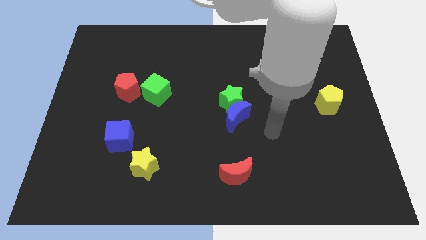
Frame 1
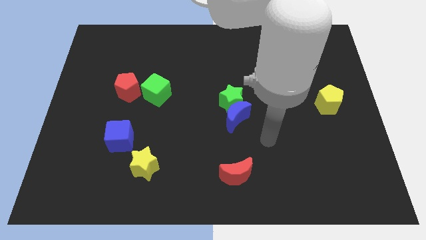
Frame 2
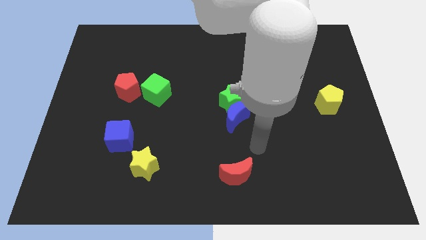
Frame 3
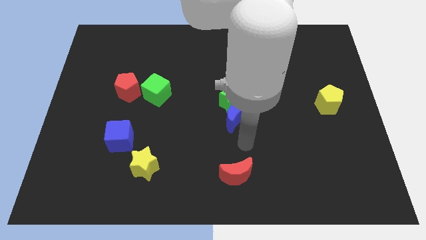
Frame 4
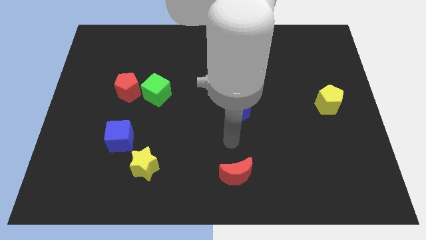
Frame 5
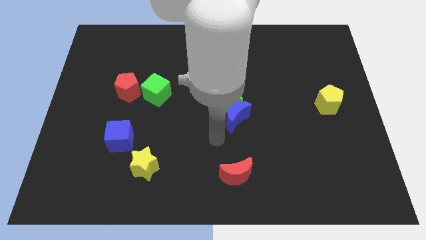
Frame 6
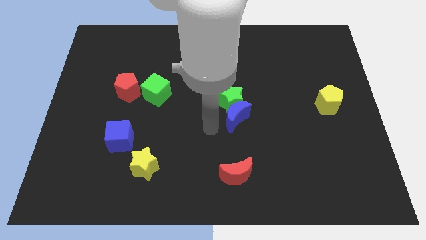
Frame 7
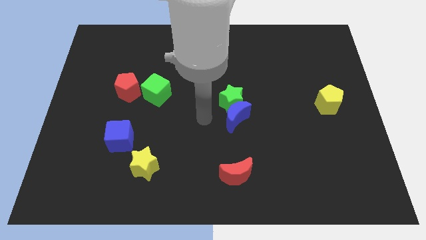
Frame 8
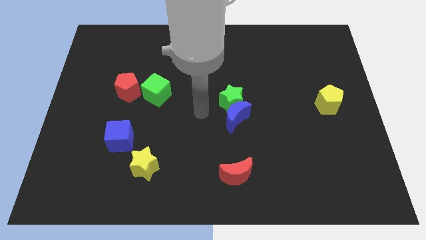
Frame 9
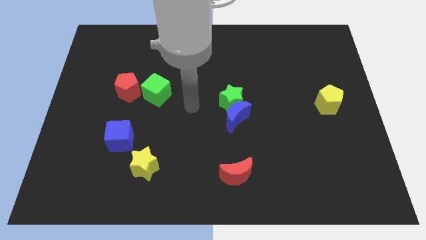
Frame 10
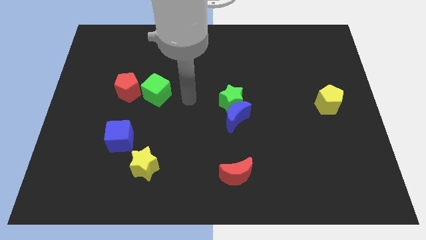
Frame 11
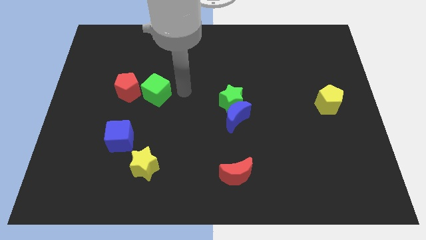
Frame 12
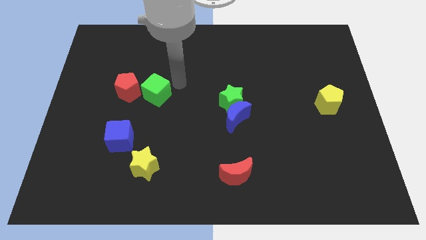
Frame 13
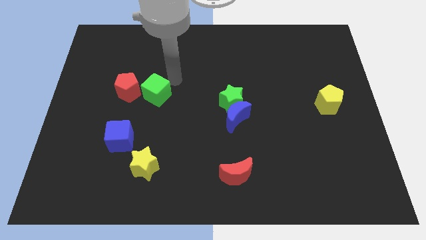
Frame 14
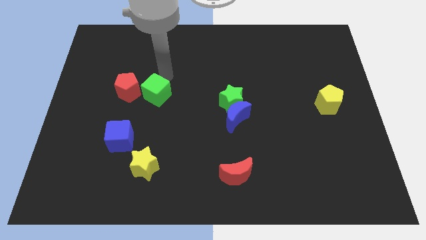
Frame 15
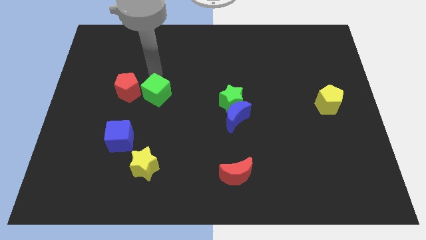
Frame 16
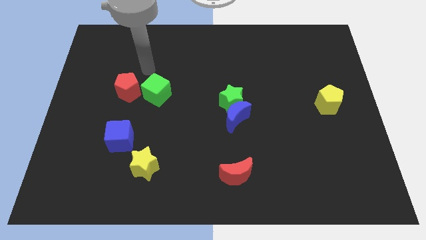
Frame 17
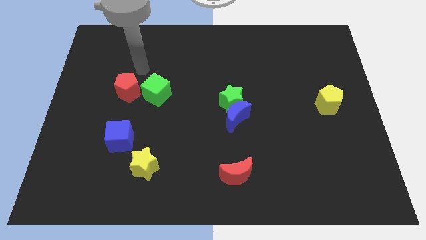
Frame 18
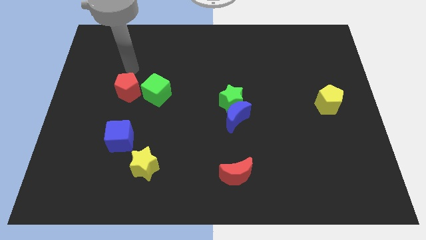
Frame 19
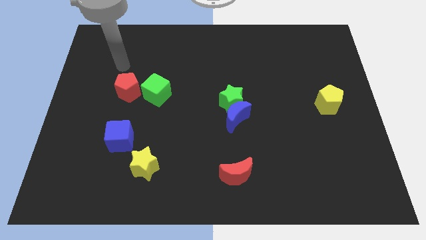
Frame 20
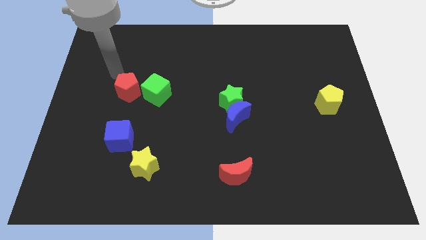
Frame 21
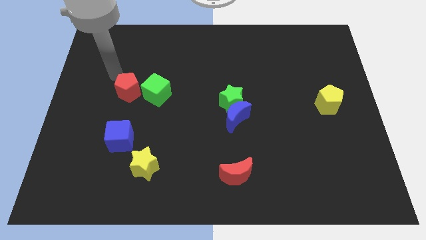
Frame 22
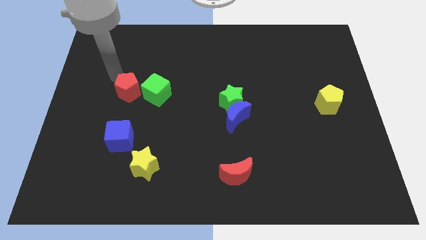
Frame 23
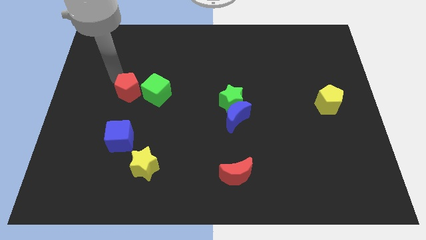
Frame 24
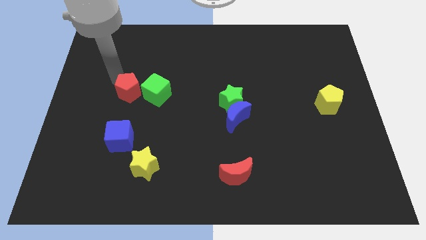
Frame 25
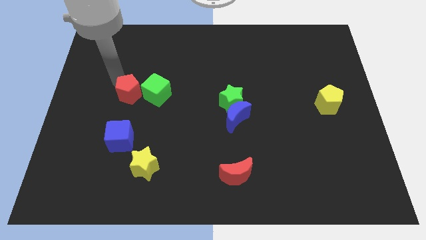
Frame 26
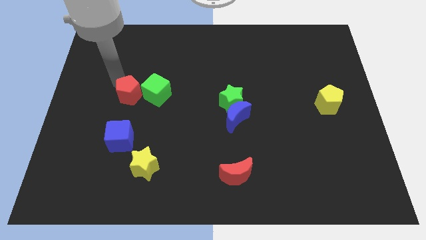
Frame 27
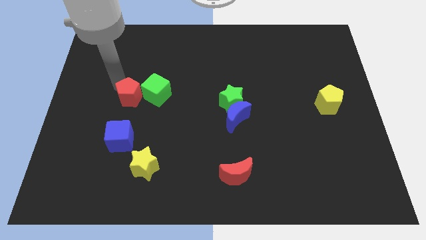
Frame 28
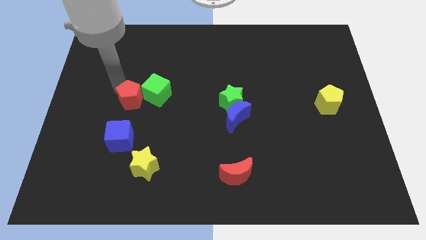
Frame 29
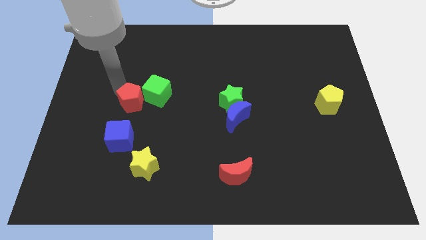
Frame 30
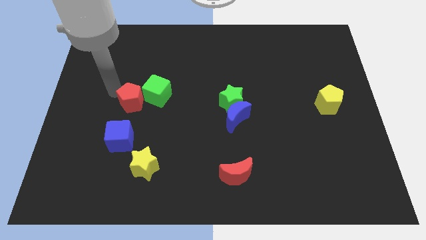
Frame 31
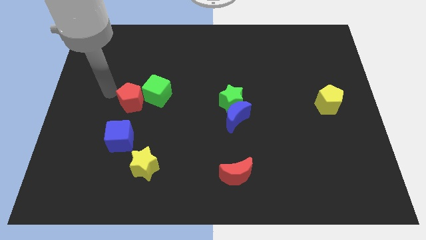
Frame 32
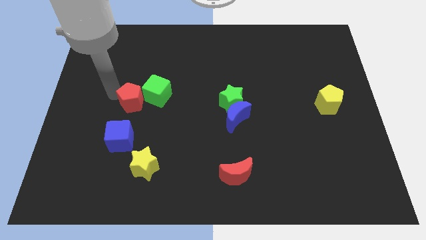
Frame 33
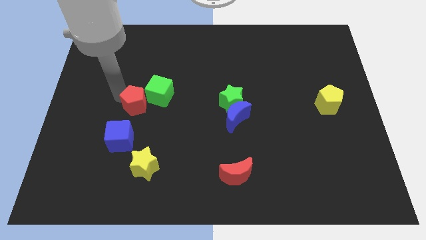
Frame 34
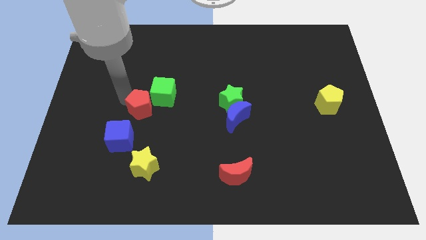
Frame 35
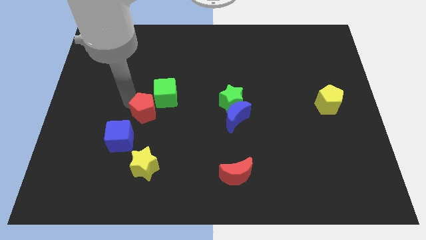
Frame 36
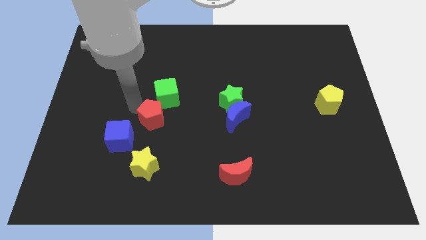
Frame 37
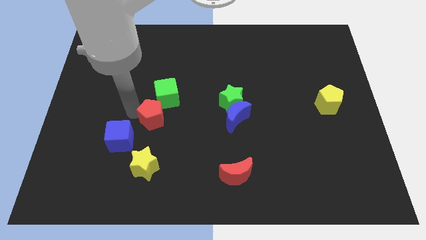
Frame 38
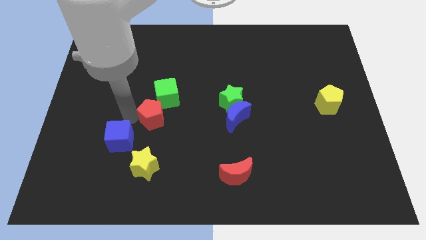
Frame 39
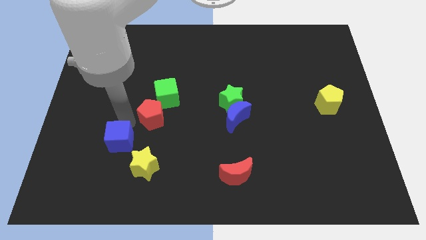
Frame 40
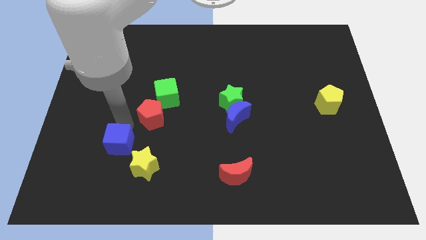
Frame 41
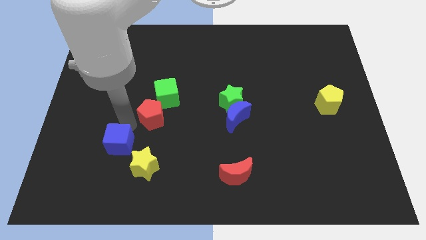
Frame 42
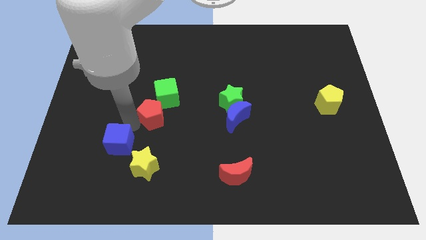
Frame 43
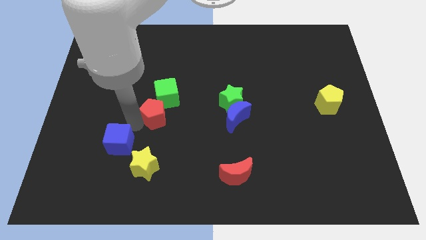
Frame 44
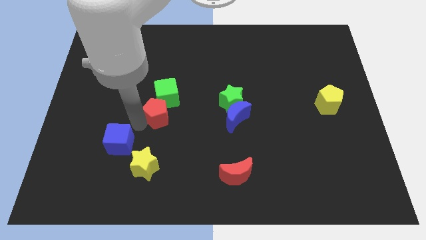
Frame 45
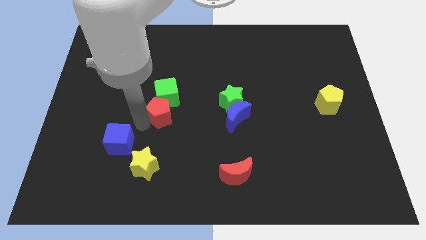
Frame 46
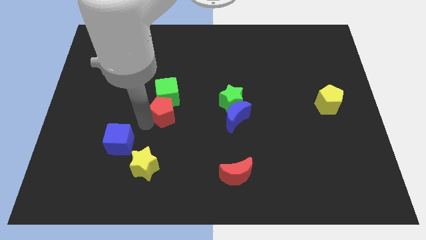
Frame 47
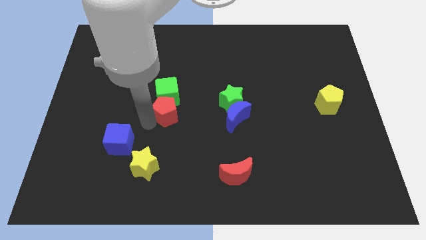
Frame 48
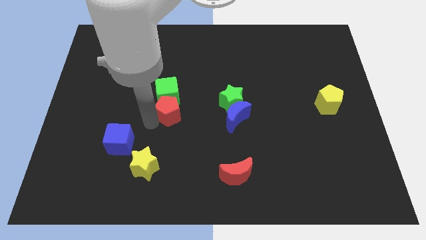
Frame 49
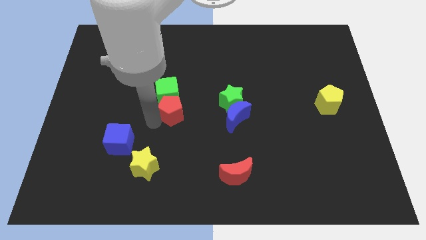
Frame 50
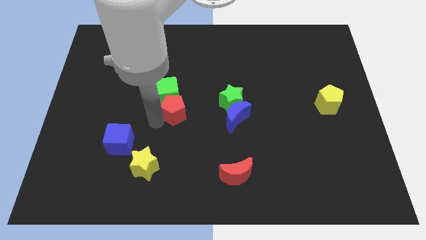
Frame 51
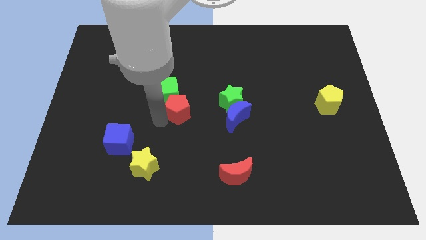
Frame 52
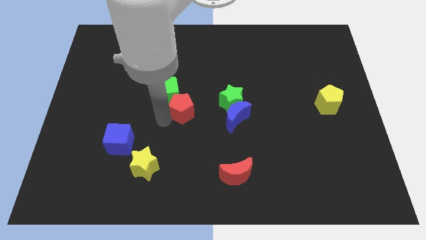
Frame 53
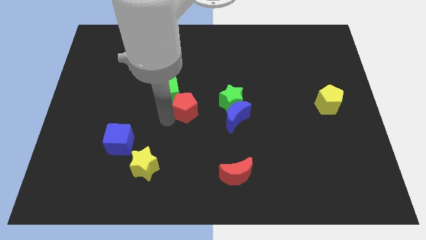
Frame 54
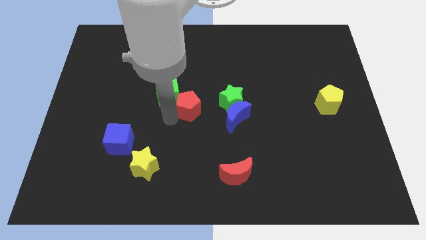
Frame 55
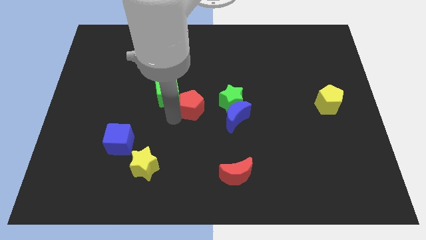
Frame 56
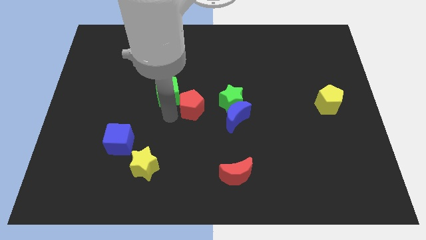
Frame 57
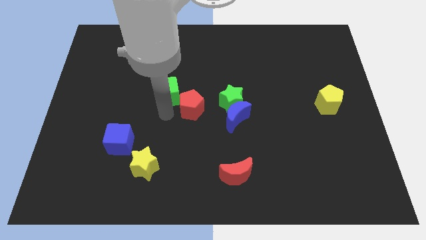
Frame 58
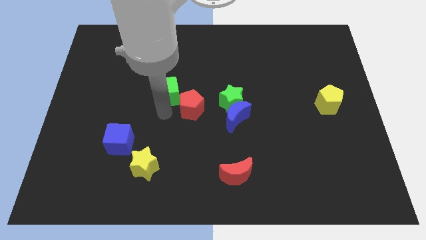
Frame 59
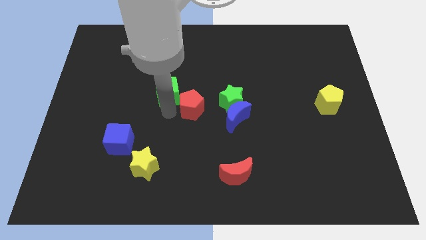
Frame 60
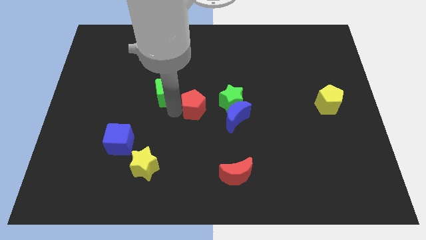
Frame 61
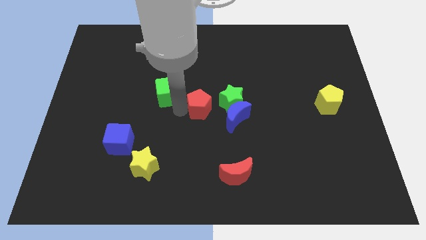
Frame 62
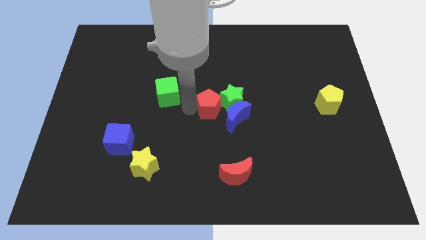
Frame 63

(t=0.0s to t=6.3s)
push the red pentagon close to the green star

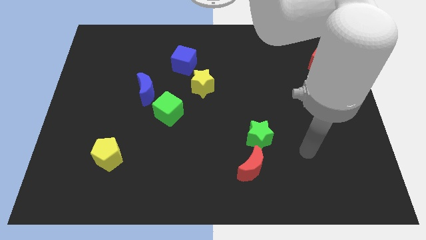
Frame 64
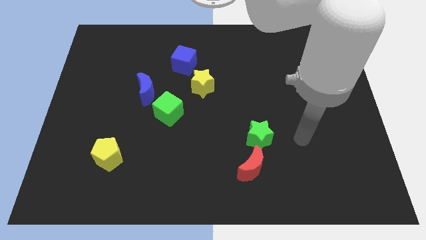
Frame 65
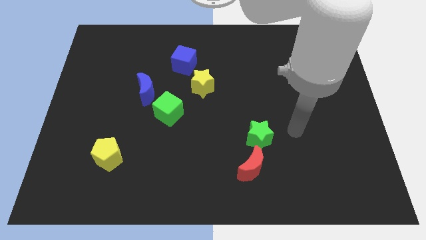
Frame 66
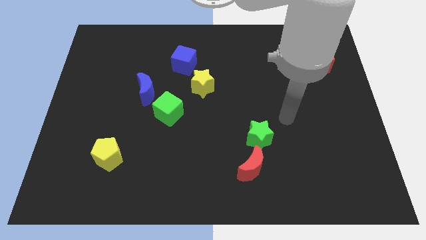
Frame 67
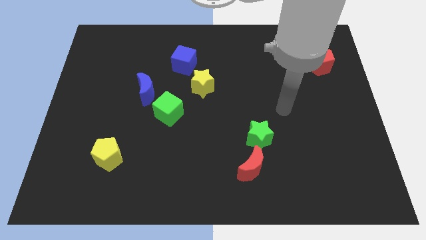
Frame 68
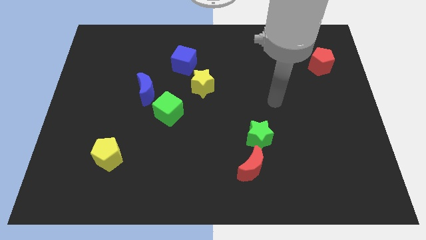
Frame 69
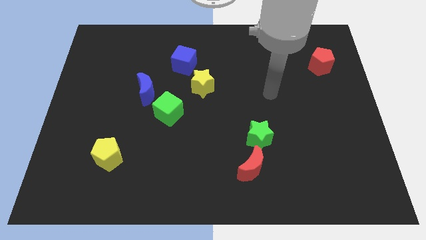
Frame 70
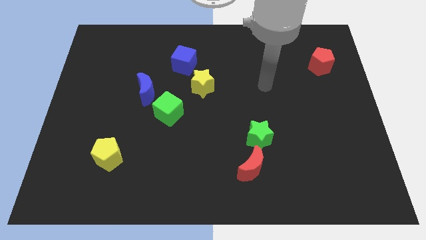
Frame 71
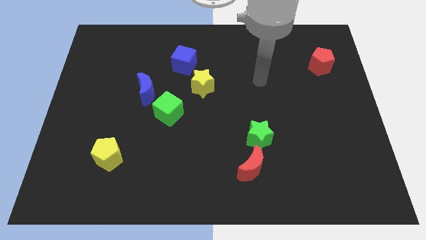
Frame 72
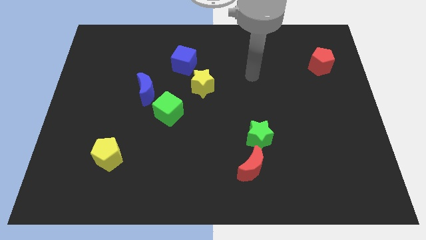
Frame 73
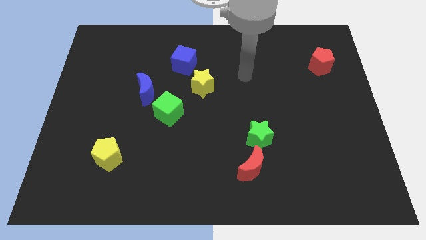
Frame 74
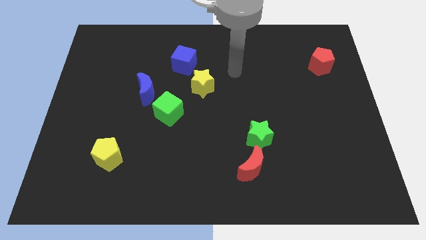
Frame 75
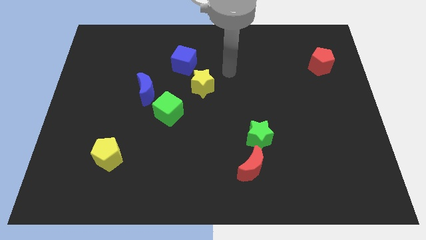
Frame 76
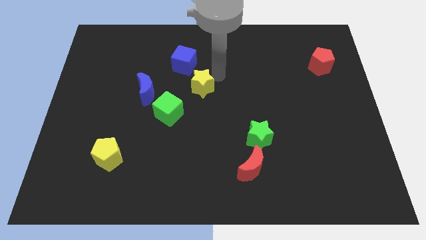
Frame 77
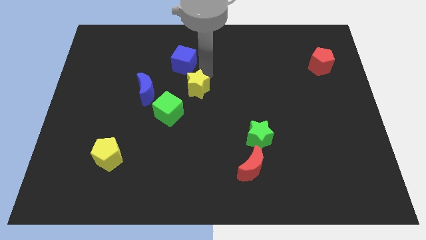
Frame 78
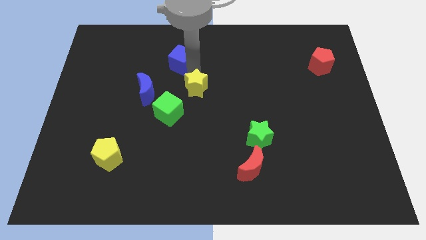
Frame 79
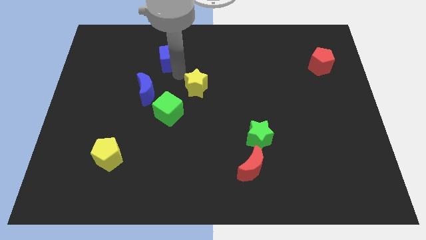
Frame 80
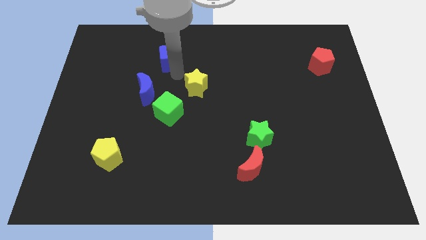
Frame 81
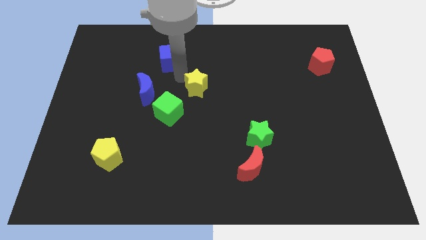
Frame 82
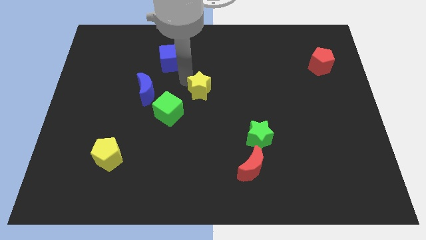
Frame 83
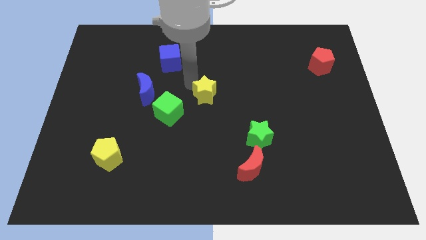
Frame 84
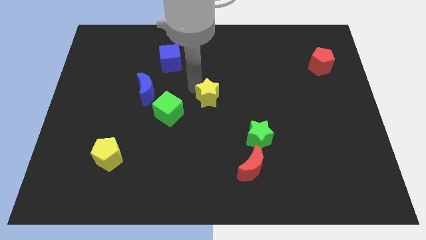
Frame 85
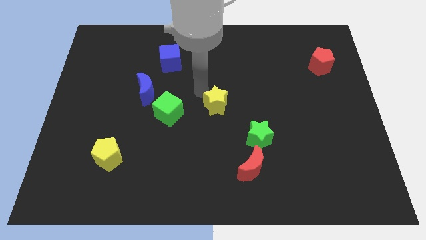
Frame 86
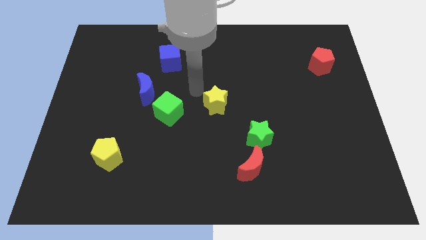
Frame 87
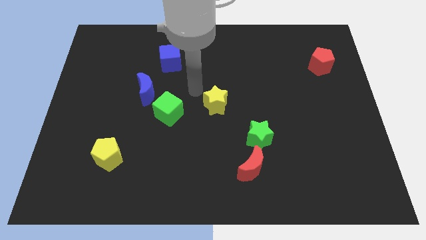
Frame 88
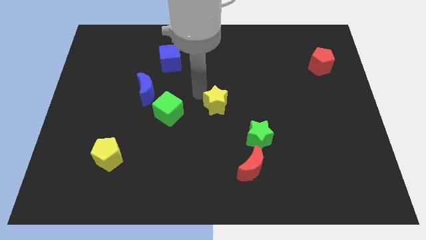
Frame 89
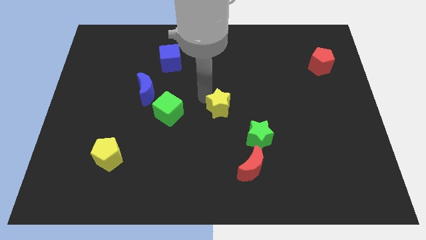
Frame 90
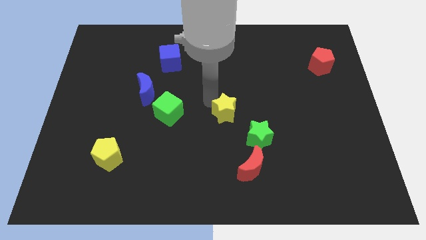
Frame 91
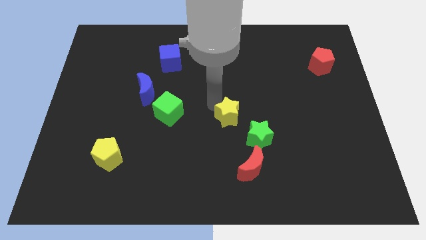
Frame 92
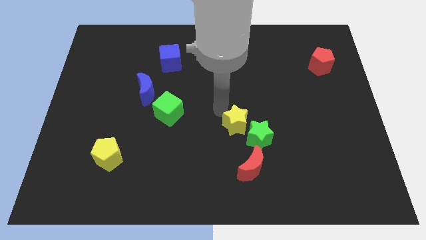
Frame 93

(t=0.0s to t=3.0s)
push the yellow star to the green star
